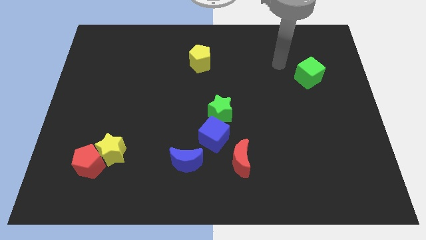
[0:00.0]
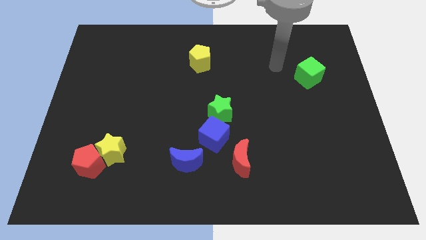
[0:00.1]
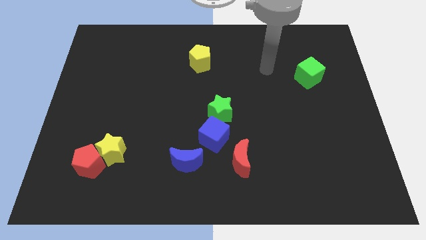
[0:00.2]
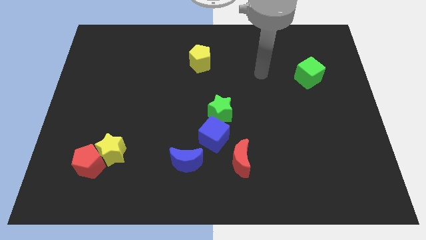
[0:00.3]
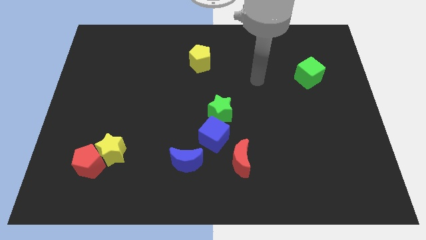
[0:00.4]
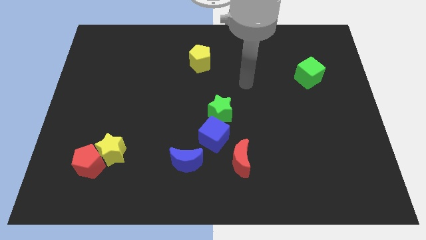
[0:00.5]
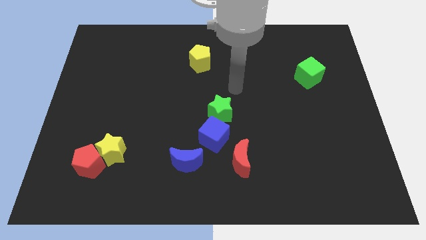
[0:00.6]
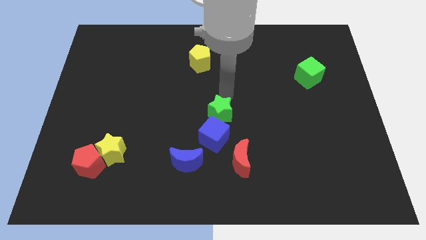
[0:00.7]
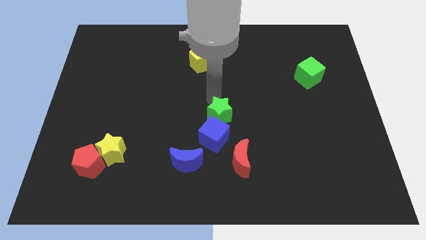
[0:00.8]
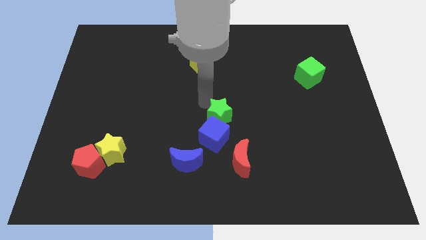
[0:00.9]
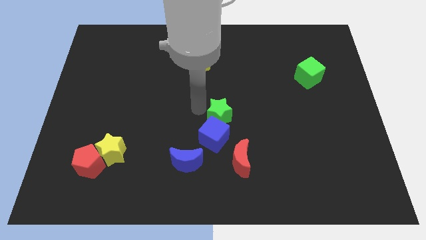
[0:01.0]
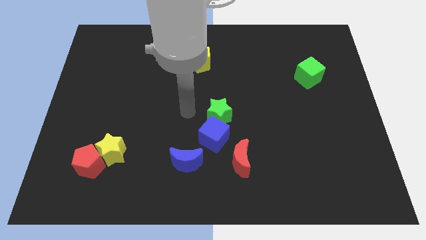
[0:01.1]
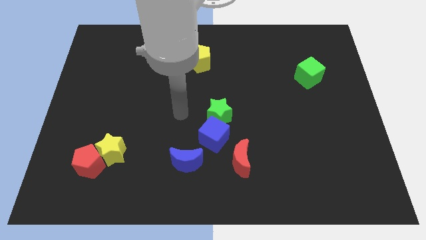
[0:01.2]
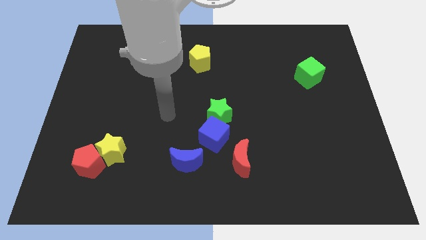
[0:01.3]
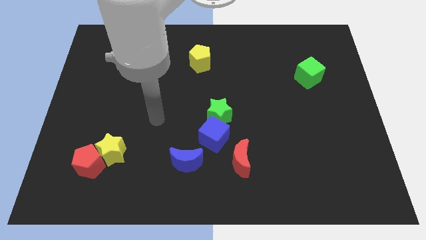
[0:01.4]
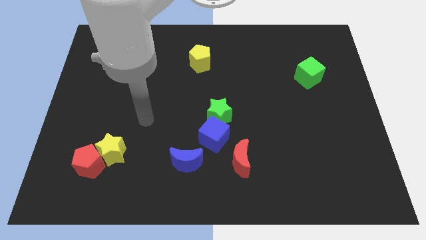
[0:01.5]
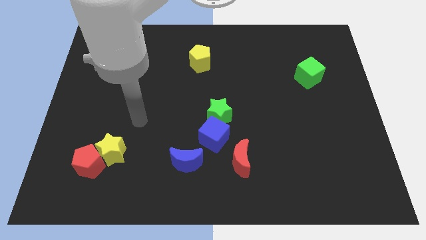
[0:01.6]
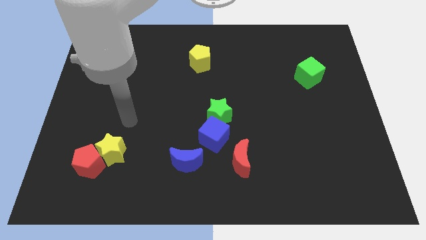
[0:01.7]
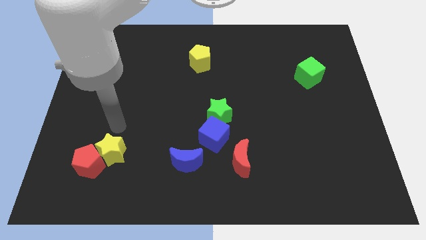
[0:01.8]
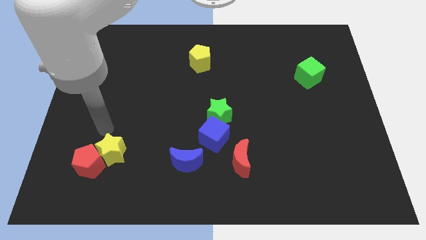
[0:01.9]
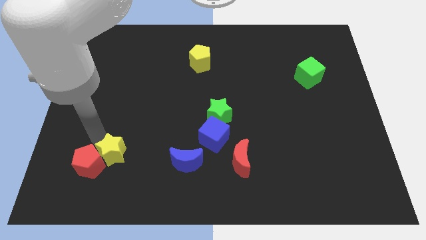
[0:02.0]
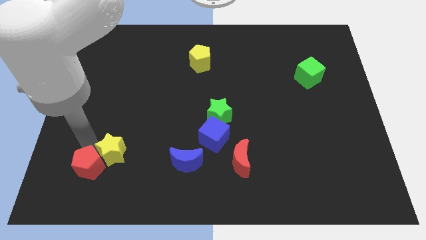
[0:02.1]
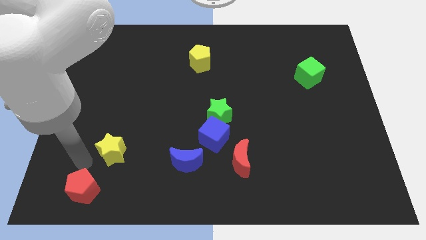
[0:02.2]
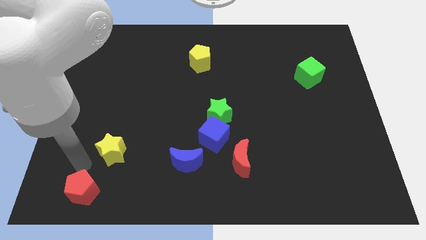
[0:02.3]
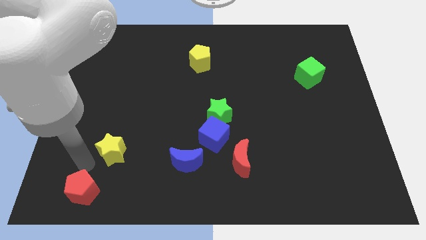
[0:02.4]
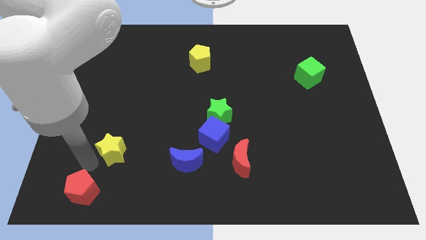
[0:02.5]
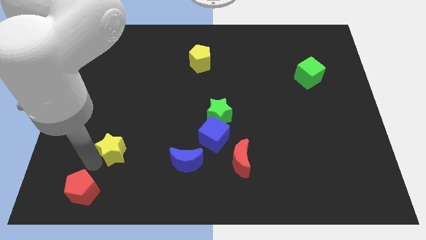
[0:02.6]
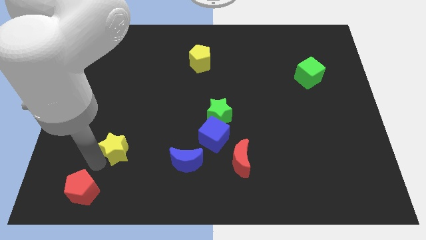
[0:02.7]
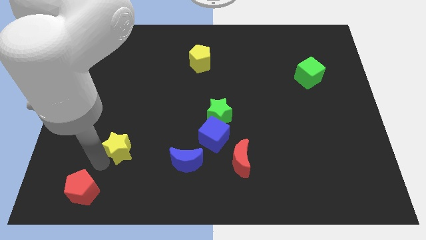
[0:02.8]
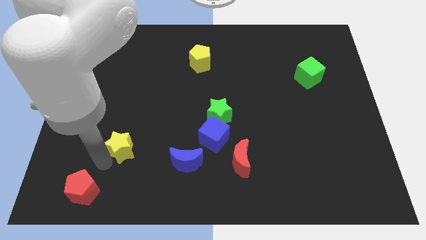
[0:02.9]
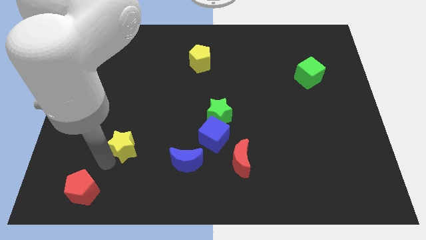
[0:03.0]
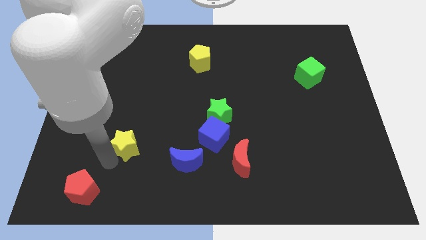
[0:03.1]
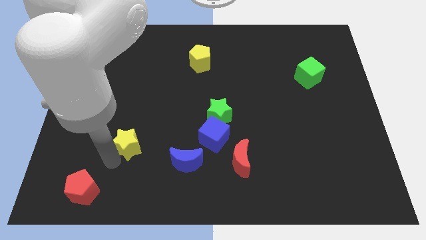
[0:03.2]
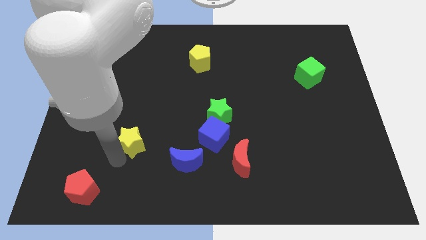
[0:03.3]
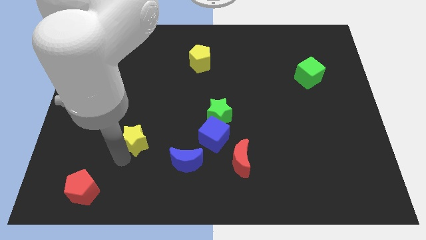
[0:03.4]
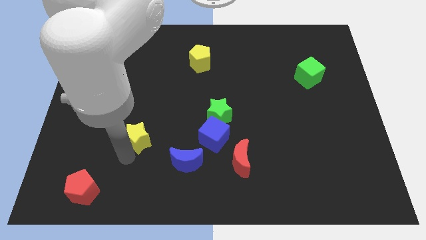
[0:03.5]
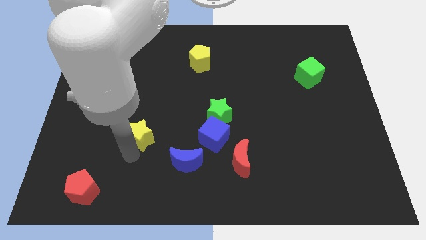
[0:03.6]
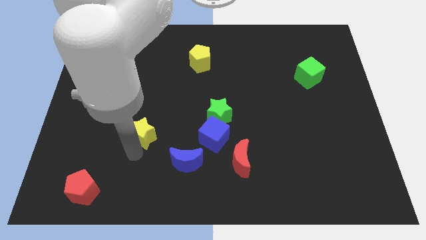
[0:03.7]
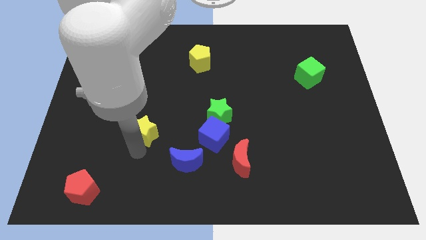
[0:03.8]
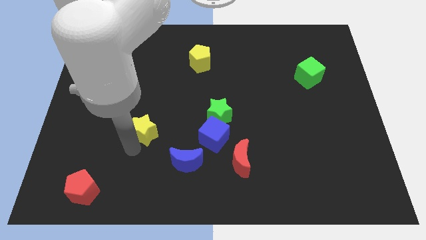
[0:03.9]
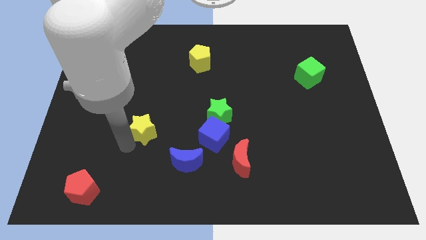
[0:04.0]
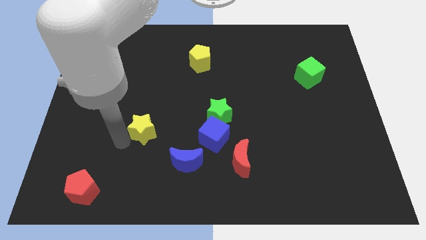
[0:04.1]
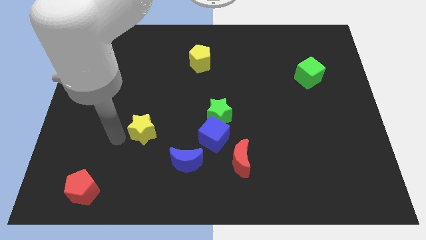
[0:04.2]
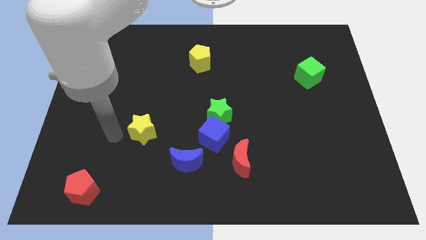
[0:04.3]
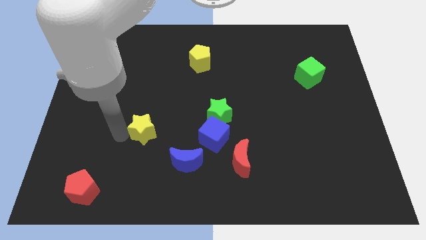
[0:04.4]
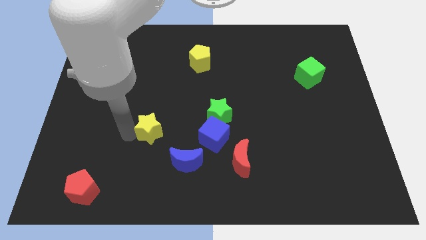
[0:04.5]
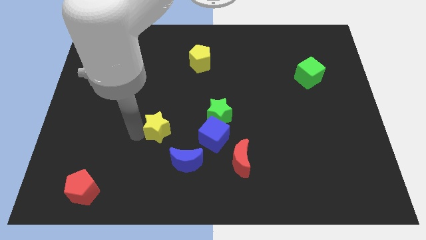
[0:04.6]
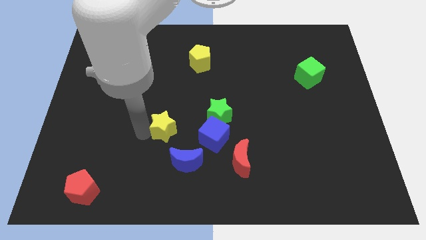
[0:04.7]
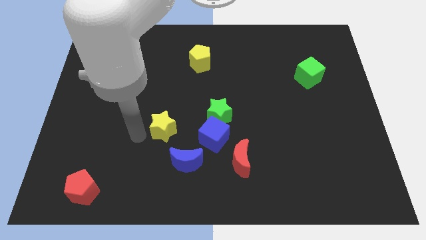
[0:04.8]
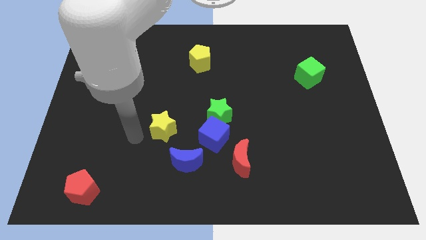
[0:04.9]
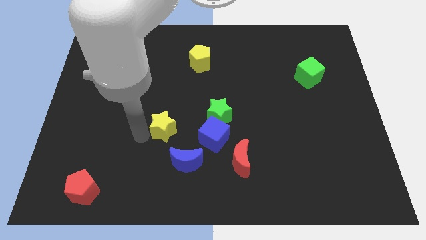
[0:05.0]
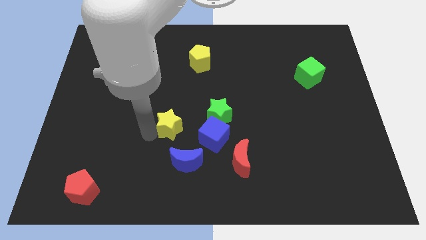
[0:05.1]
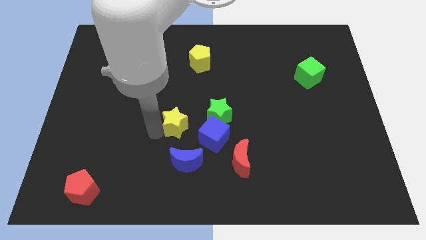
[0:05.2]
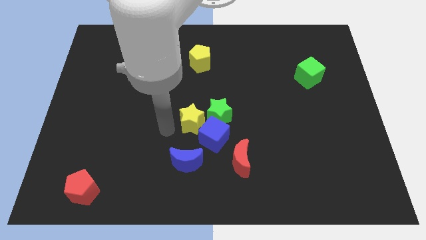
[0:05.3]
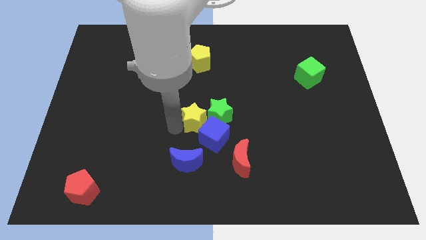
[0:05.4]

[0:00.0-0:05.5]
move the yellow star to the green star

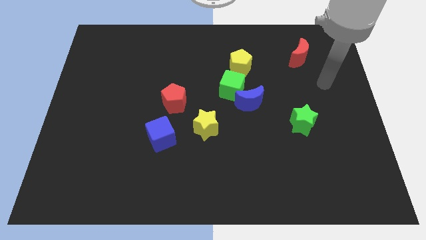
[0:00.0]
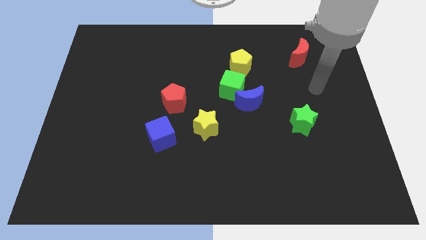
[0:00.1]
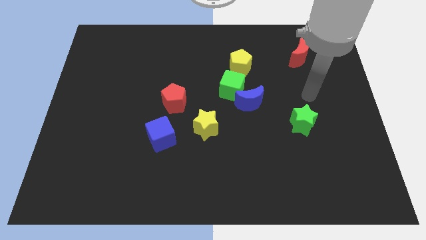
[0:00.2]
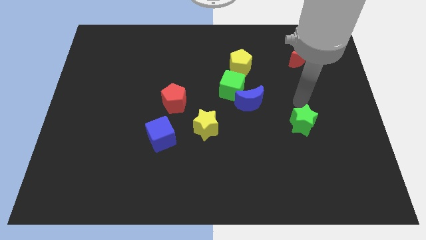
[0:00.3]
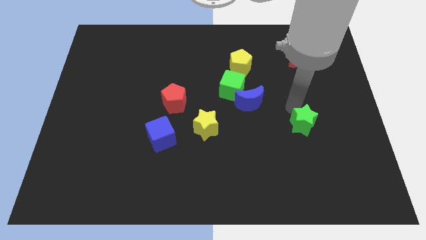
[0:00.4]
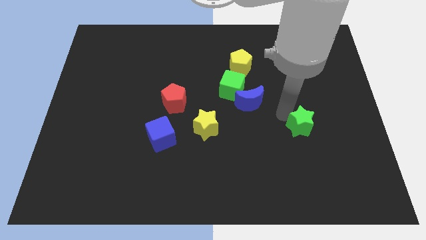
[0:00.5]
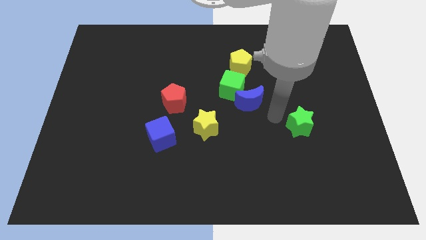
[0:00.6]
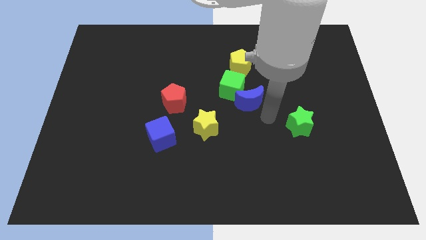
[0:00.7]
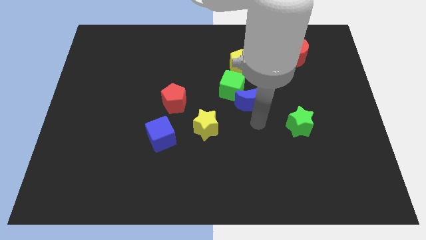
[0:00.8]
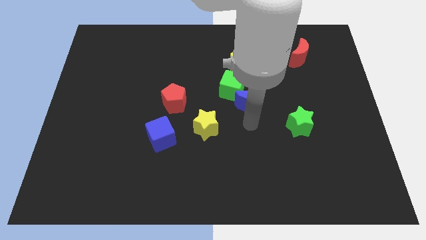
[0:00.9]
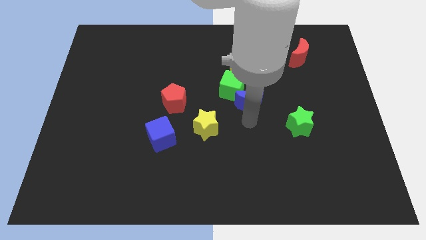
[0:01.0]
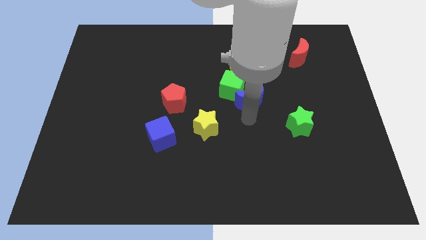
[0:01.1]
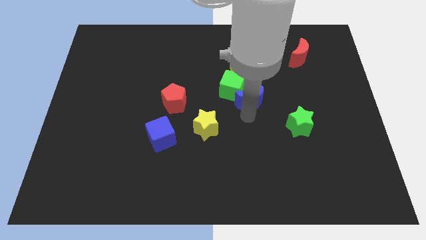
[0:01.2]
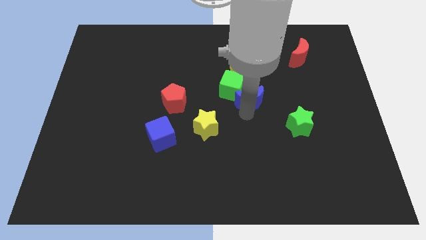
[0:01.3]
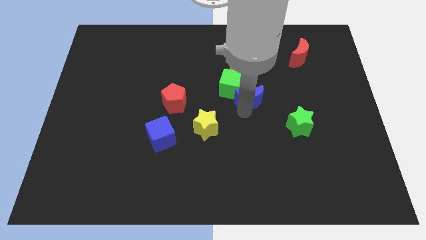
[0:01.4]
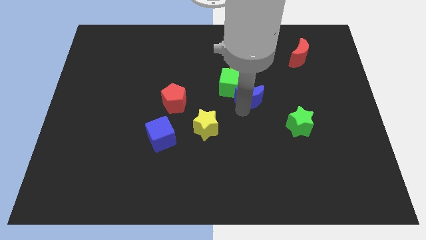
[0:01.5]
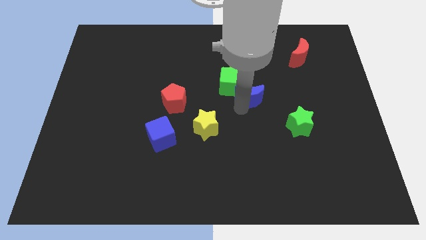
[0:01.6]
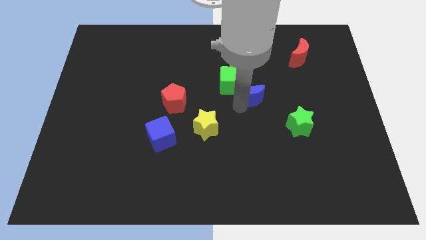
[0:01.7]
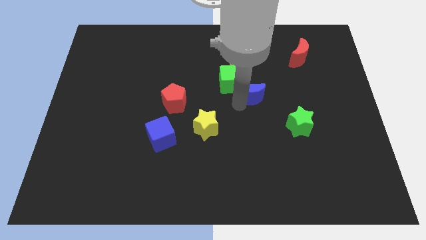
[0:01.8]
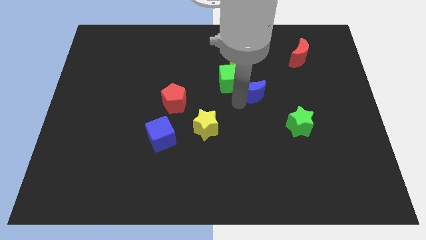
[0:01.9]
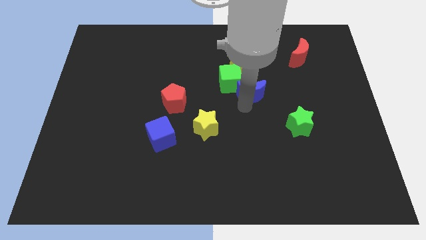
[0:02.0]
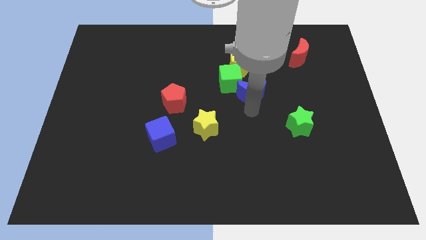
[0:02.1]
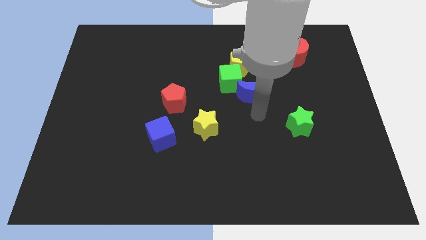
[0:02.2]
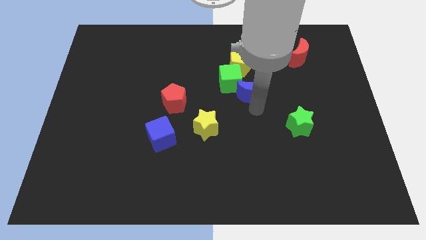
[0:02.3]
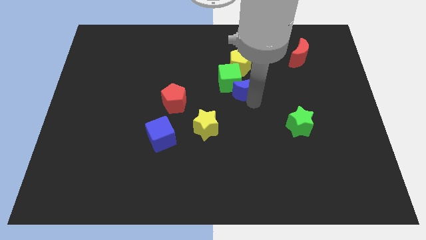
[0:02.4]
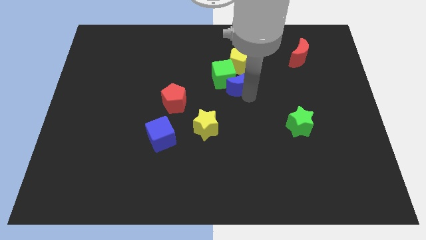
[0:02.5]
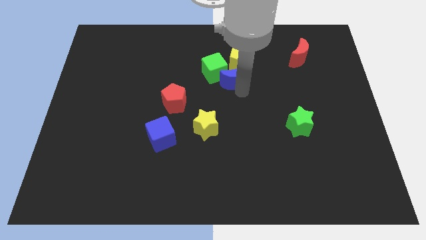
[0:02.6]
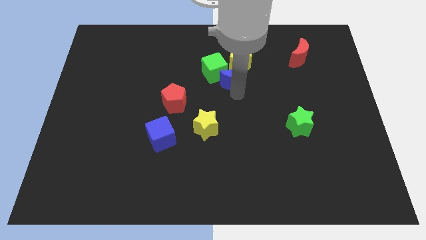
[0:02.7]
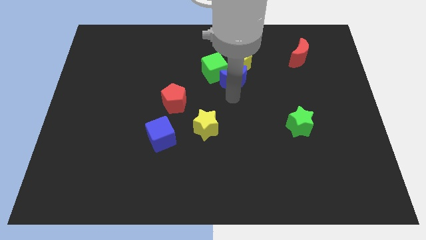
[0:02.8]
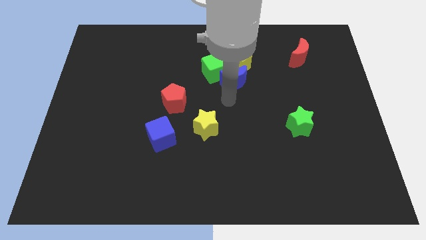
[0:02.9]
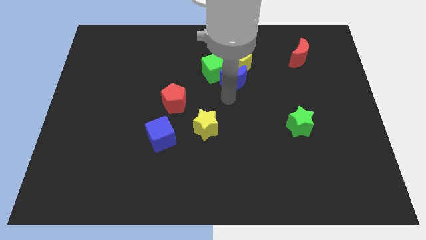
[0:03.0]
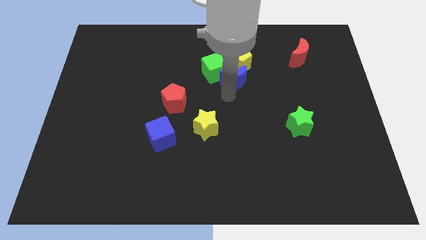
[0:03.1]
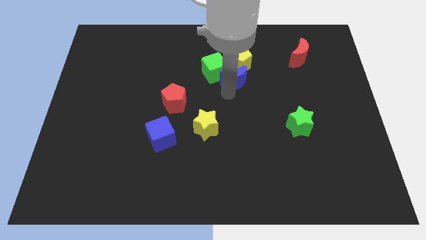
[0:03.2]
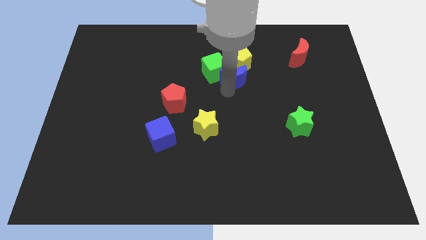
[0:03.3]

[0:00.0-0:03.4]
slide the blue moon towards the yellow pentagon
